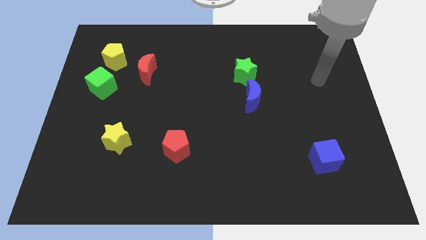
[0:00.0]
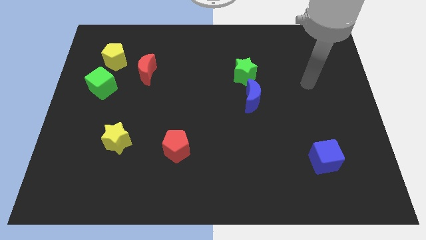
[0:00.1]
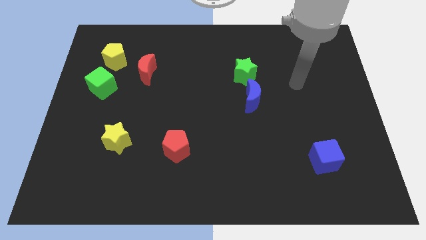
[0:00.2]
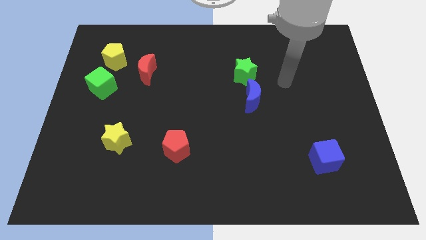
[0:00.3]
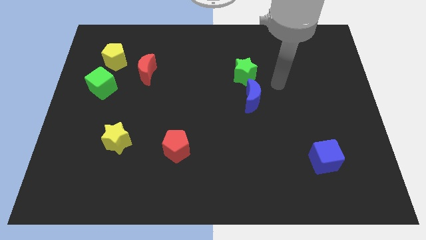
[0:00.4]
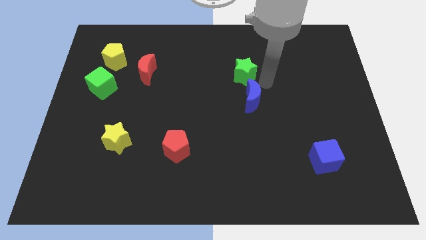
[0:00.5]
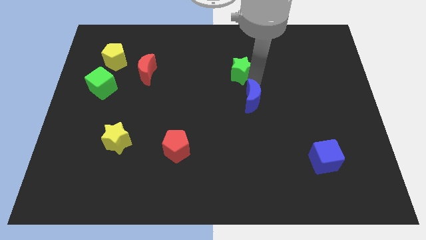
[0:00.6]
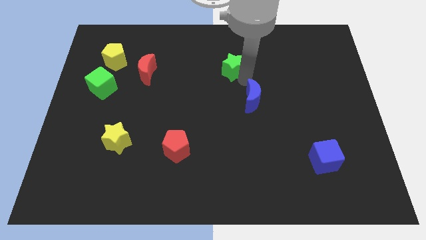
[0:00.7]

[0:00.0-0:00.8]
separate the blue moon from the green star

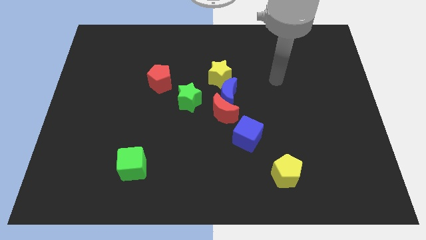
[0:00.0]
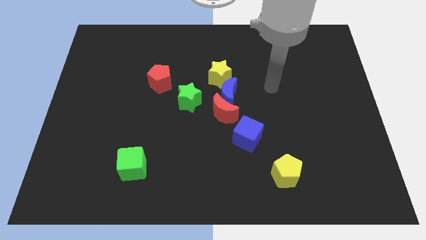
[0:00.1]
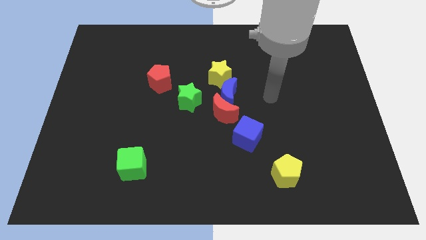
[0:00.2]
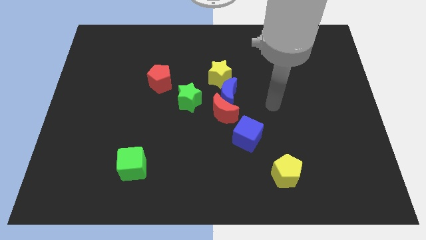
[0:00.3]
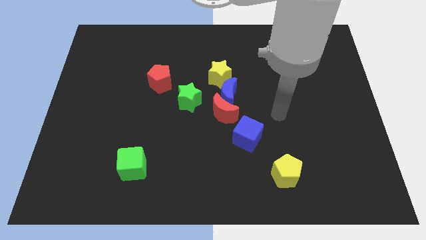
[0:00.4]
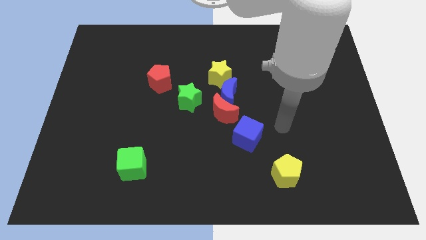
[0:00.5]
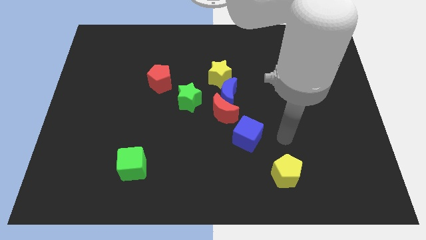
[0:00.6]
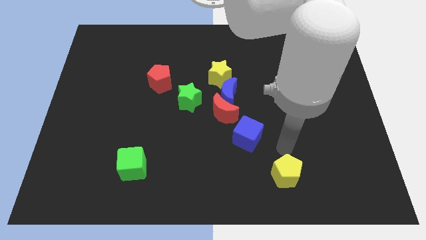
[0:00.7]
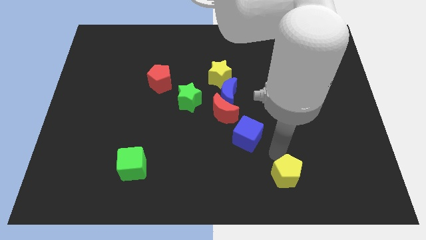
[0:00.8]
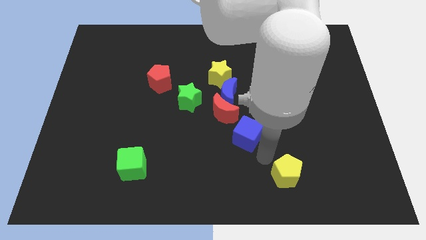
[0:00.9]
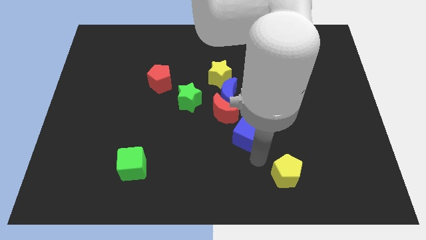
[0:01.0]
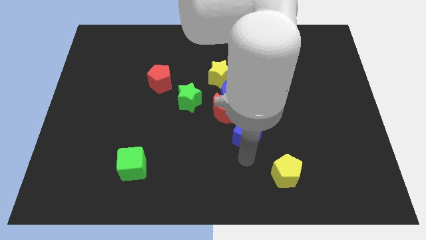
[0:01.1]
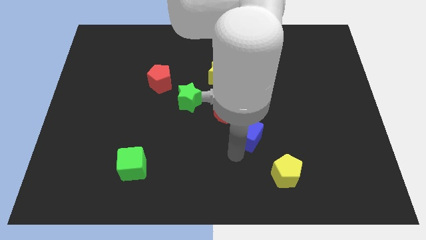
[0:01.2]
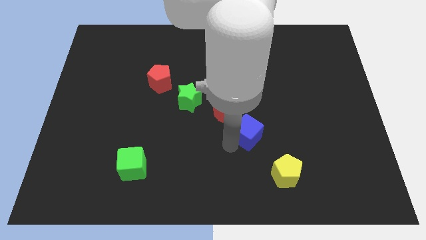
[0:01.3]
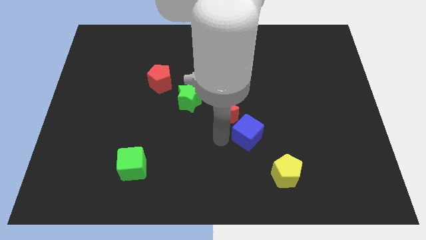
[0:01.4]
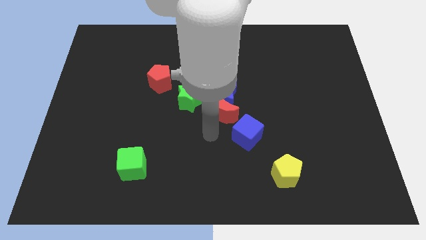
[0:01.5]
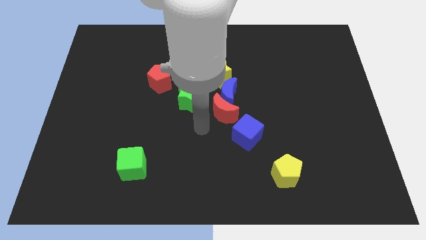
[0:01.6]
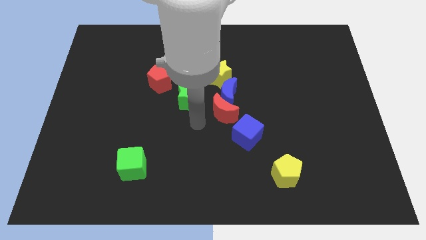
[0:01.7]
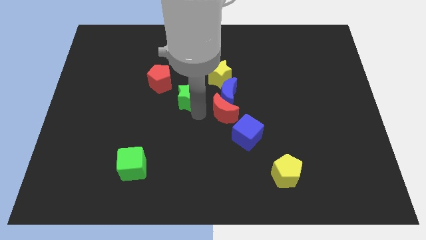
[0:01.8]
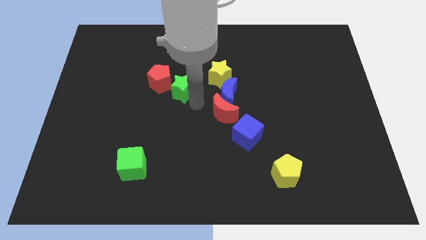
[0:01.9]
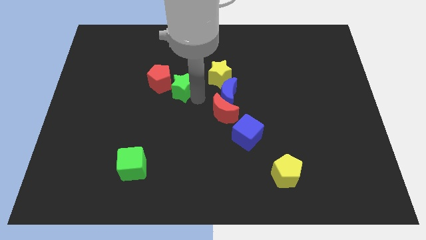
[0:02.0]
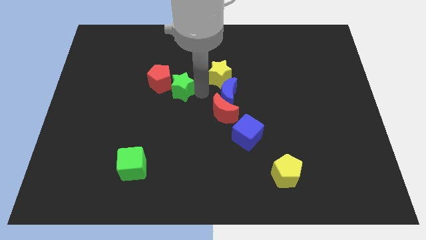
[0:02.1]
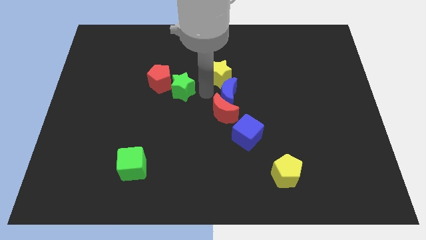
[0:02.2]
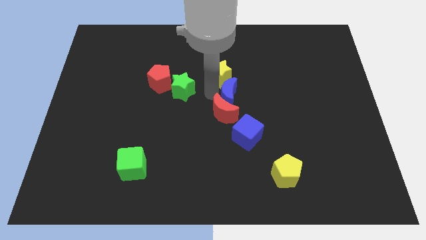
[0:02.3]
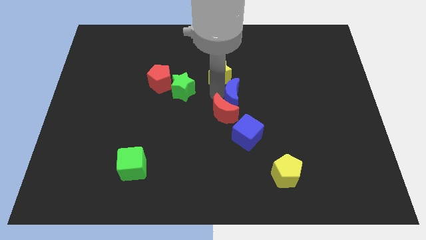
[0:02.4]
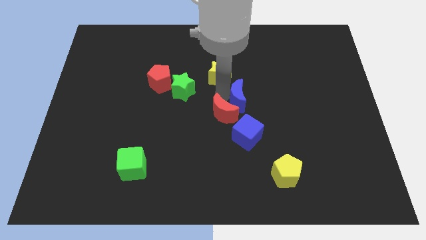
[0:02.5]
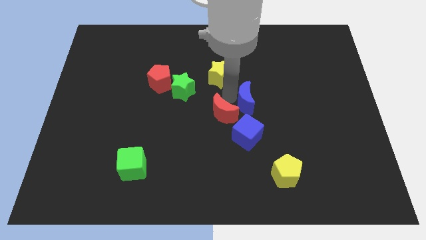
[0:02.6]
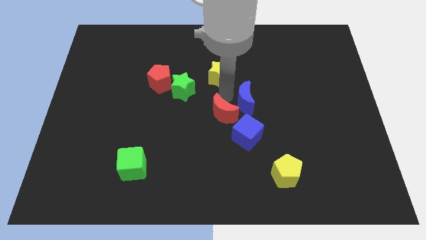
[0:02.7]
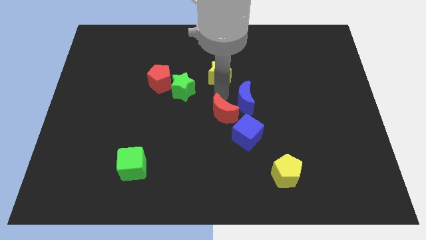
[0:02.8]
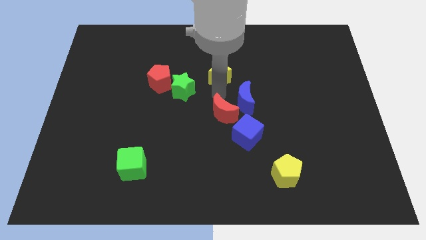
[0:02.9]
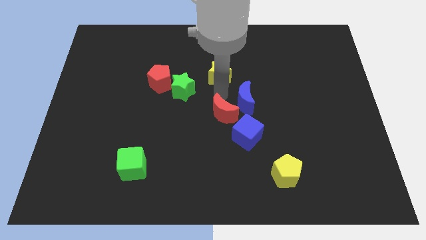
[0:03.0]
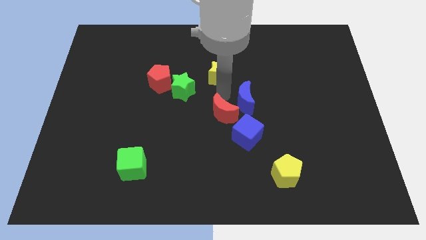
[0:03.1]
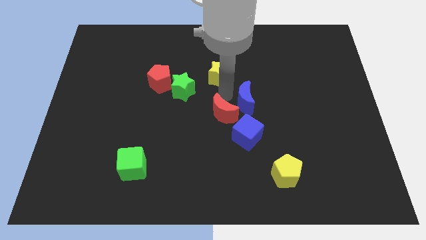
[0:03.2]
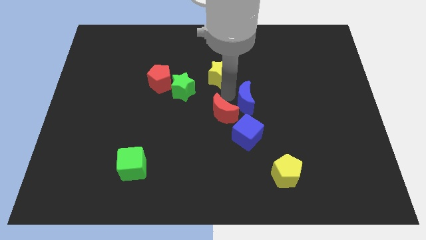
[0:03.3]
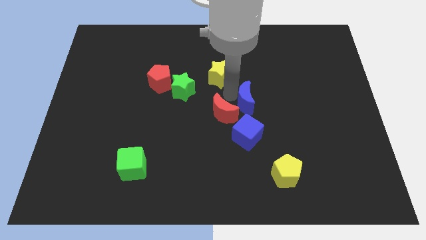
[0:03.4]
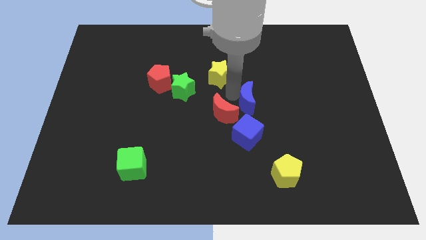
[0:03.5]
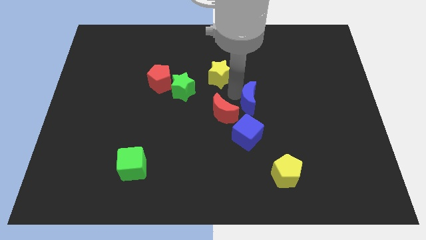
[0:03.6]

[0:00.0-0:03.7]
move the blue moon away from the red moon, yellow star, and green star

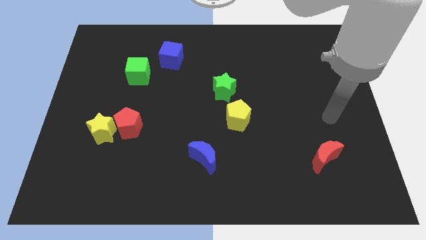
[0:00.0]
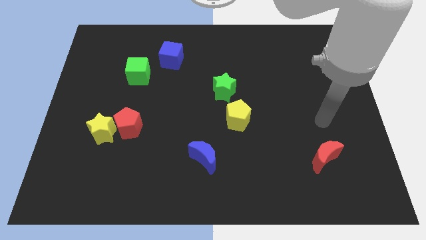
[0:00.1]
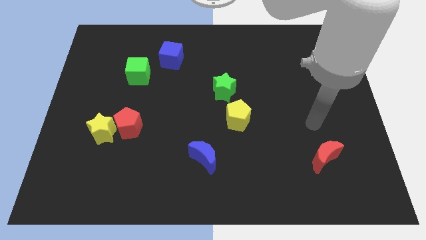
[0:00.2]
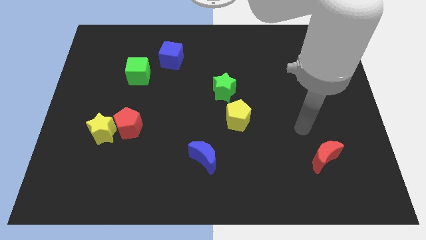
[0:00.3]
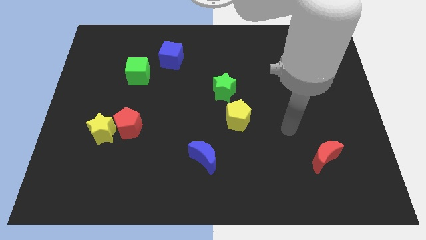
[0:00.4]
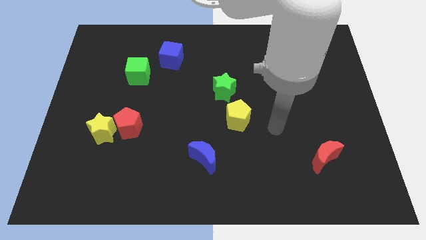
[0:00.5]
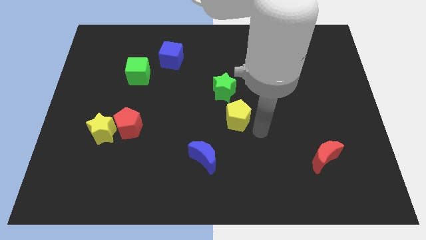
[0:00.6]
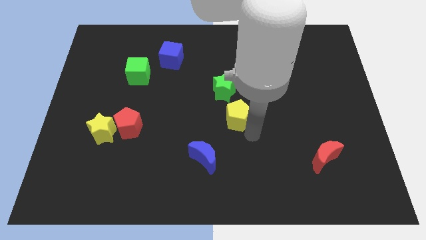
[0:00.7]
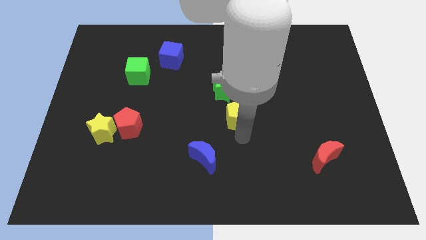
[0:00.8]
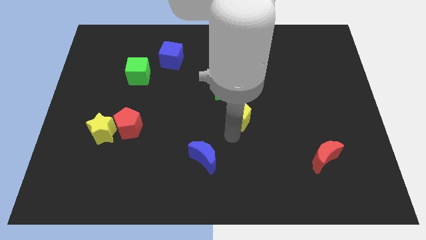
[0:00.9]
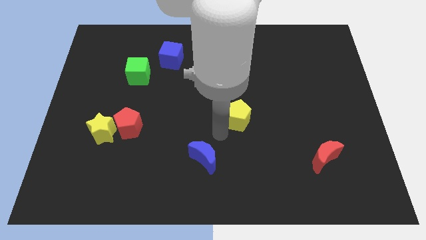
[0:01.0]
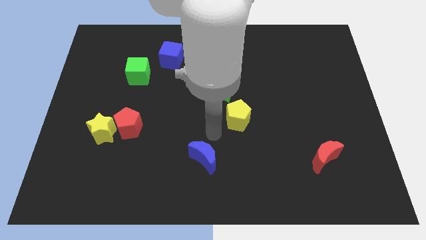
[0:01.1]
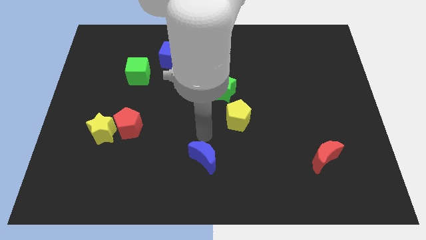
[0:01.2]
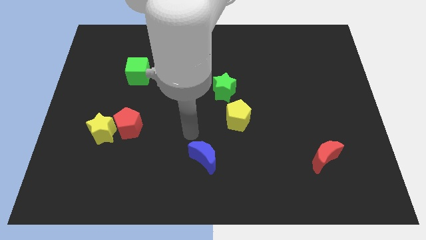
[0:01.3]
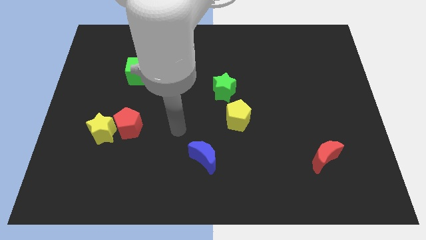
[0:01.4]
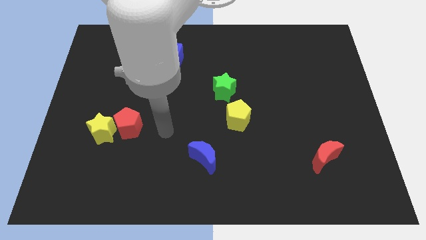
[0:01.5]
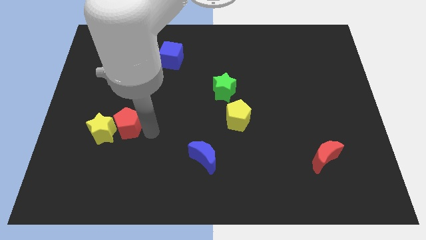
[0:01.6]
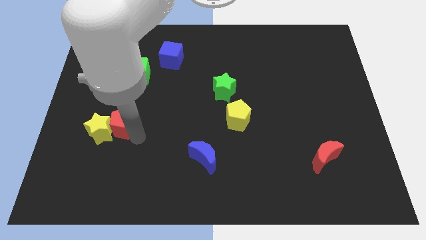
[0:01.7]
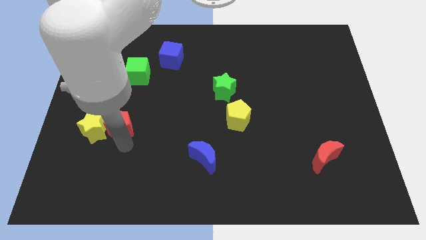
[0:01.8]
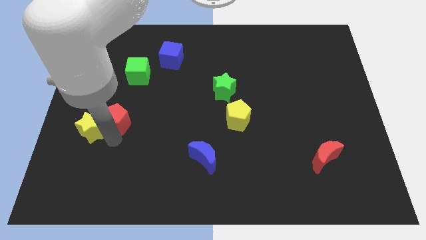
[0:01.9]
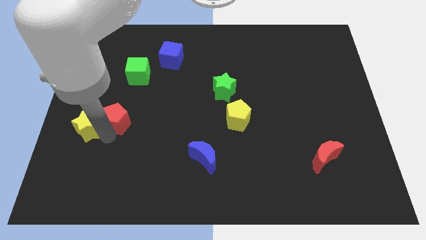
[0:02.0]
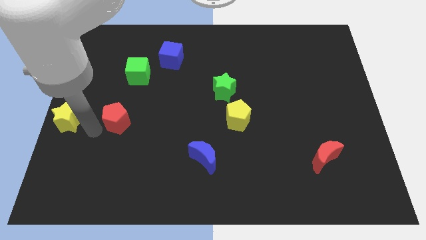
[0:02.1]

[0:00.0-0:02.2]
move the red pentagon away from the yellow star

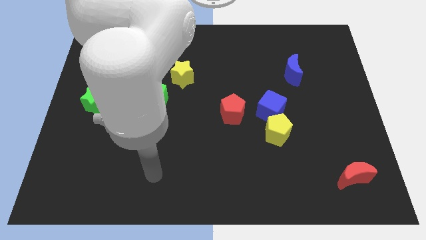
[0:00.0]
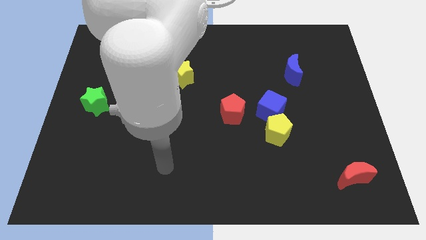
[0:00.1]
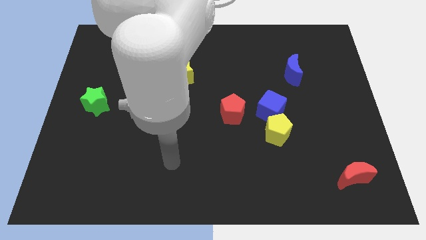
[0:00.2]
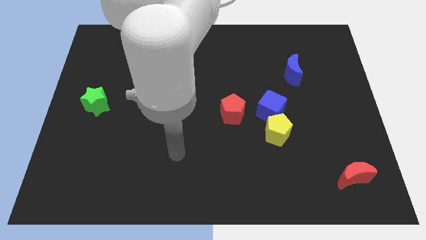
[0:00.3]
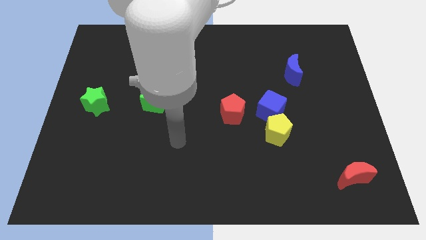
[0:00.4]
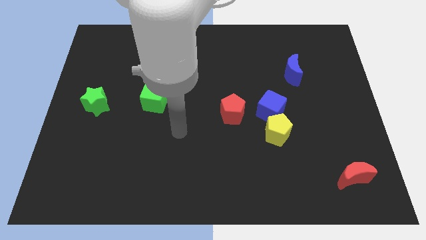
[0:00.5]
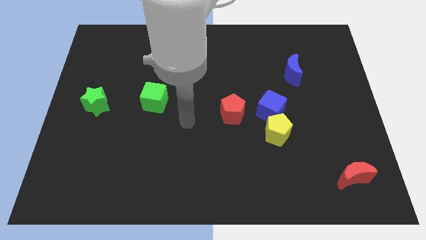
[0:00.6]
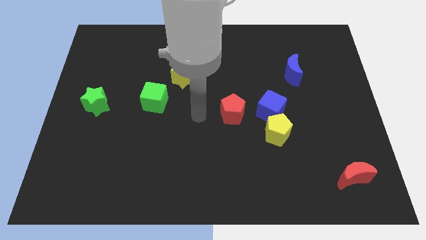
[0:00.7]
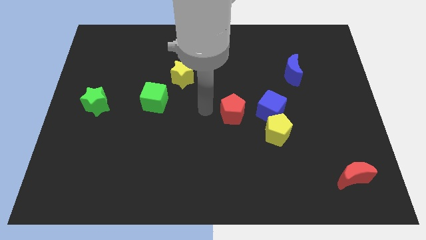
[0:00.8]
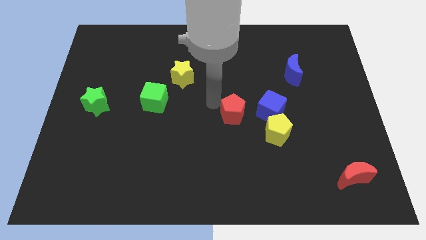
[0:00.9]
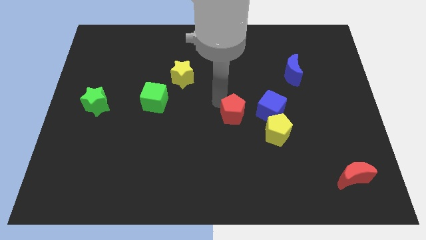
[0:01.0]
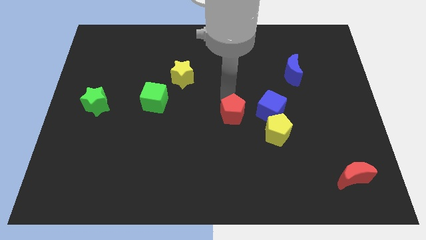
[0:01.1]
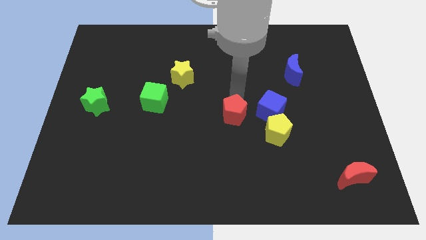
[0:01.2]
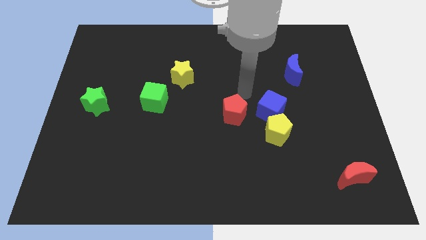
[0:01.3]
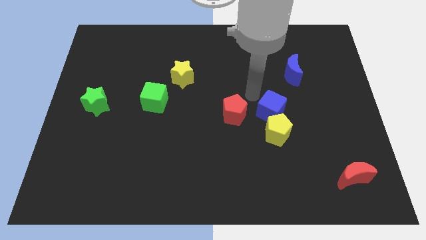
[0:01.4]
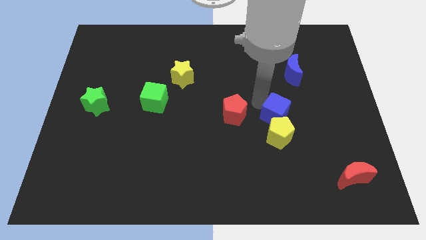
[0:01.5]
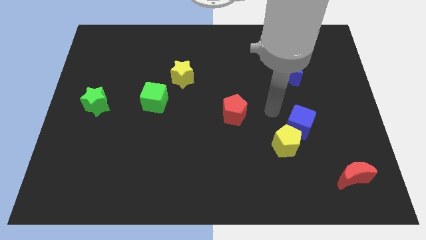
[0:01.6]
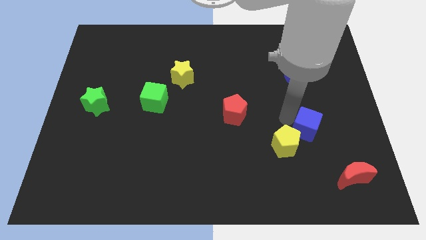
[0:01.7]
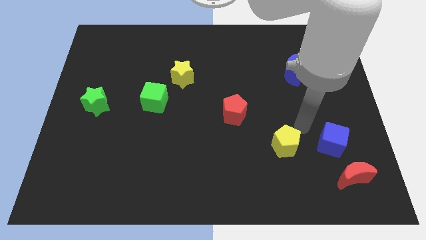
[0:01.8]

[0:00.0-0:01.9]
pull the yellow pentagon apart from the blue cube

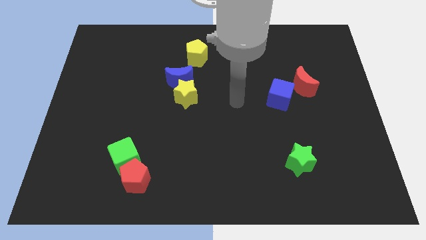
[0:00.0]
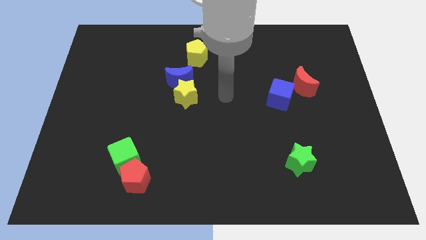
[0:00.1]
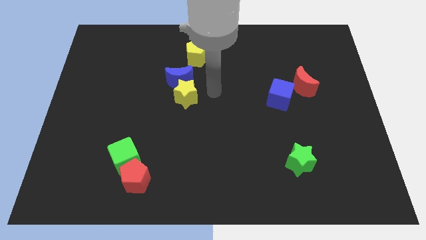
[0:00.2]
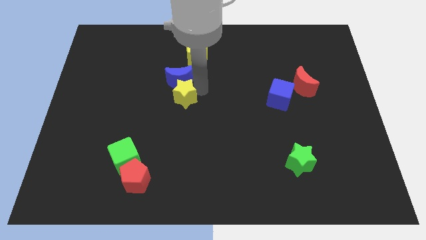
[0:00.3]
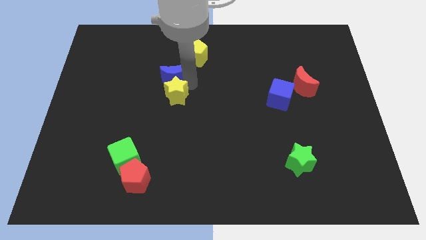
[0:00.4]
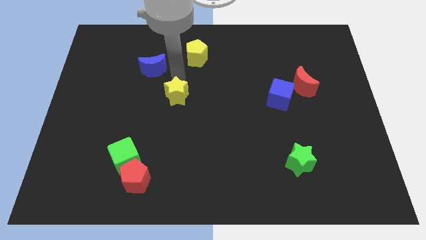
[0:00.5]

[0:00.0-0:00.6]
move the yellow star away from the blue moon
